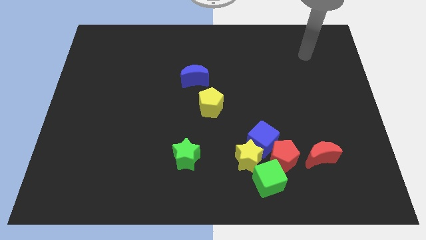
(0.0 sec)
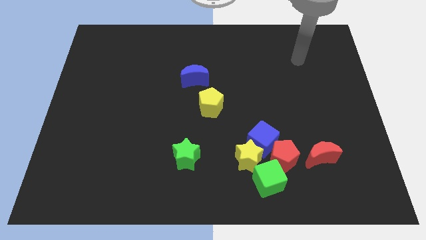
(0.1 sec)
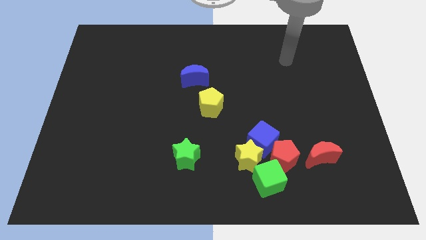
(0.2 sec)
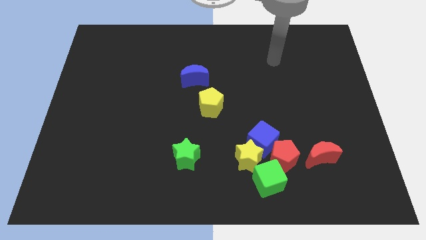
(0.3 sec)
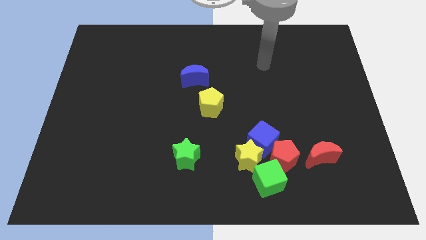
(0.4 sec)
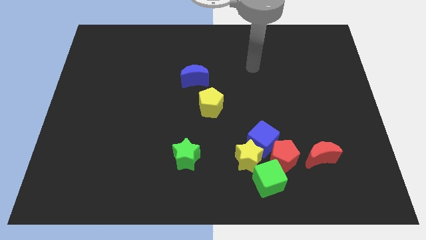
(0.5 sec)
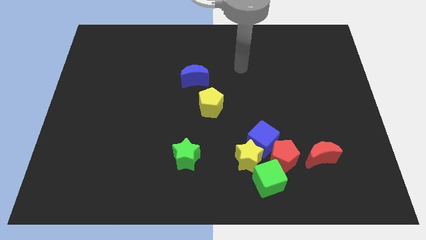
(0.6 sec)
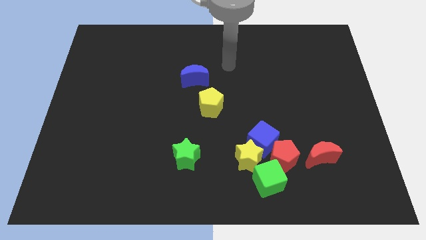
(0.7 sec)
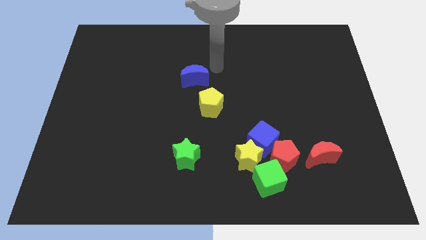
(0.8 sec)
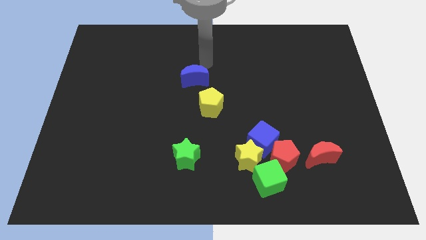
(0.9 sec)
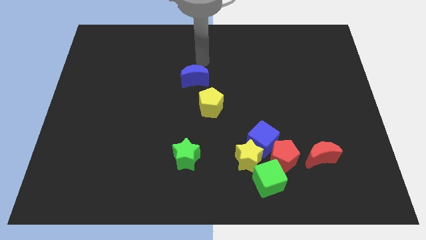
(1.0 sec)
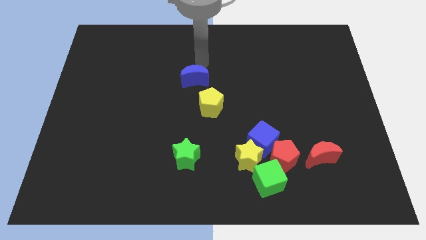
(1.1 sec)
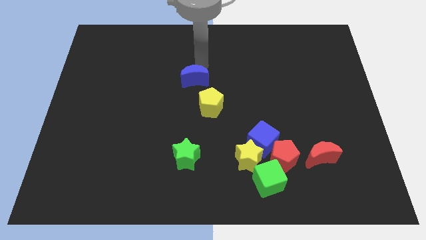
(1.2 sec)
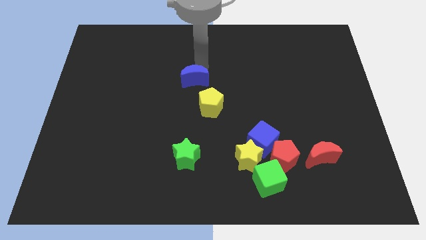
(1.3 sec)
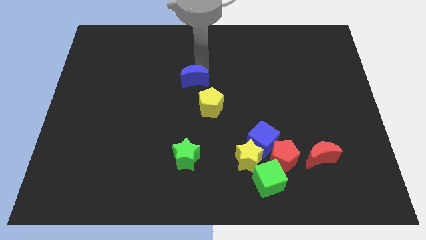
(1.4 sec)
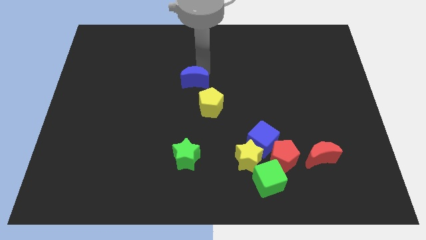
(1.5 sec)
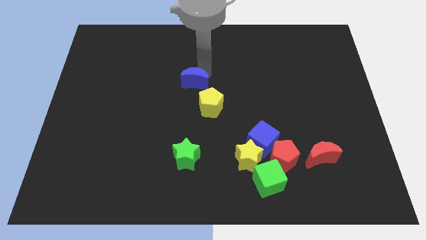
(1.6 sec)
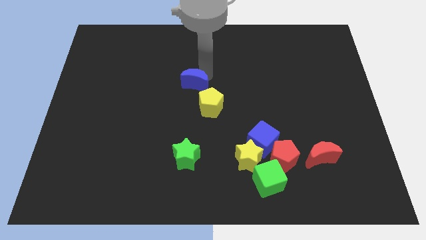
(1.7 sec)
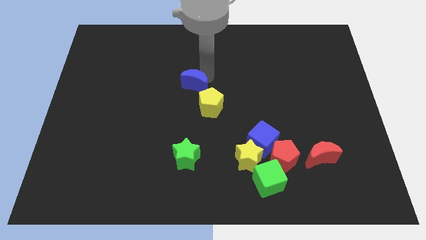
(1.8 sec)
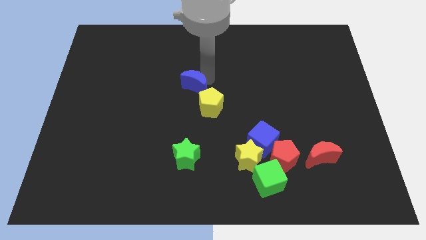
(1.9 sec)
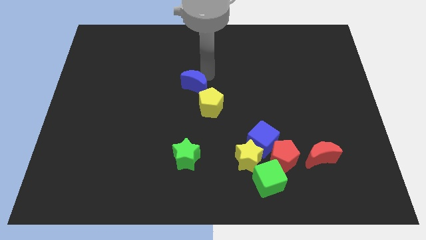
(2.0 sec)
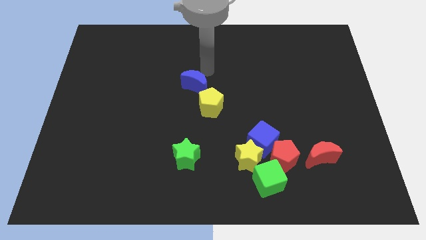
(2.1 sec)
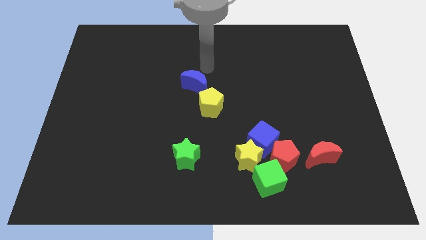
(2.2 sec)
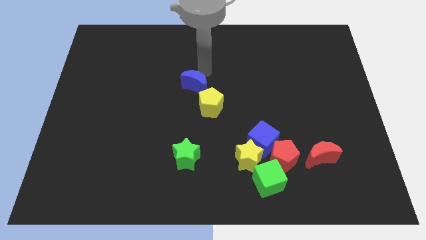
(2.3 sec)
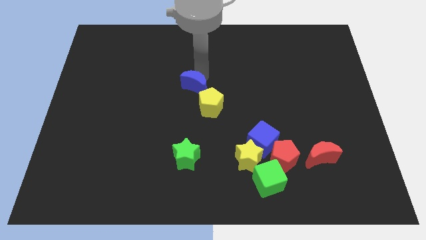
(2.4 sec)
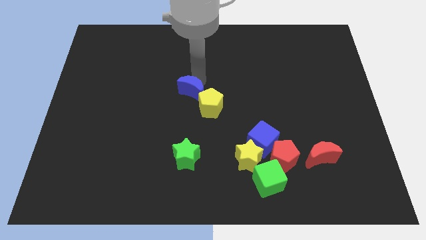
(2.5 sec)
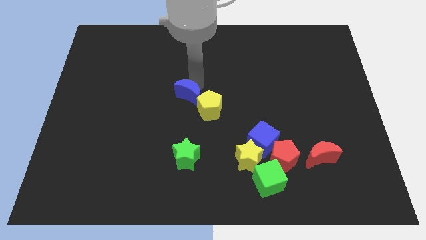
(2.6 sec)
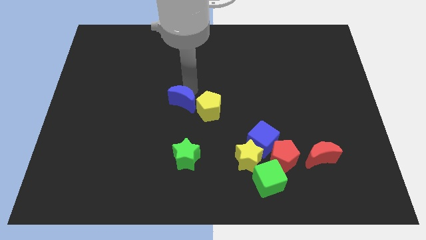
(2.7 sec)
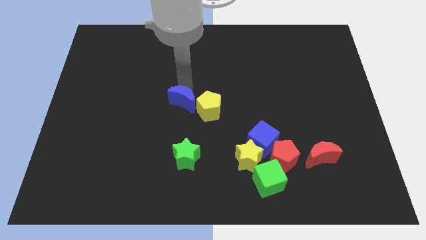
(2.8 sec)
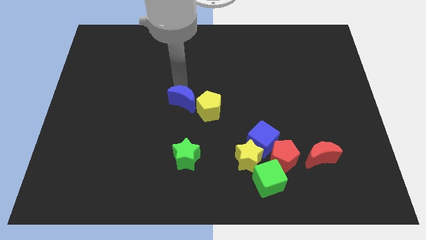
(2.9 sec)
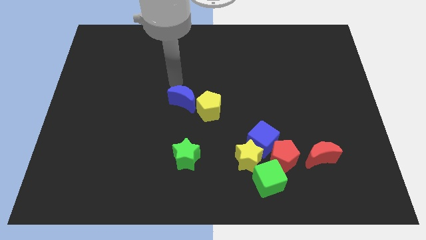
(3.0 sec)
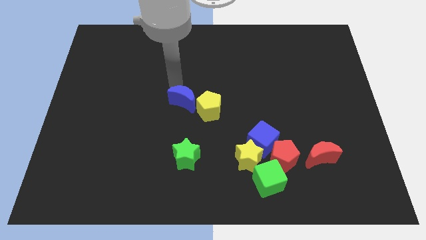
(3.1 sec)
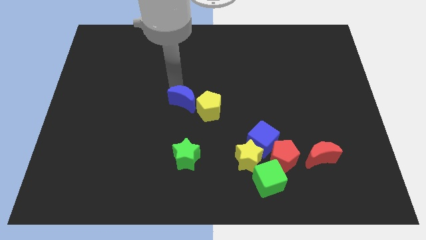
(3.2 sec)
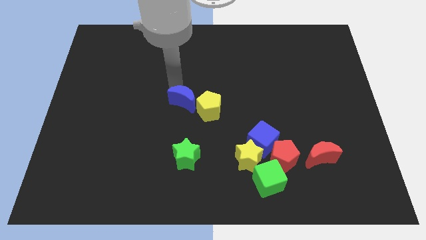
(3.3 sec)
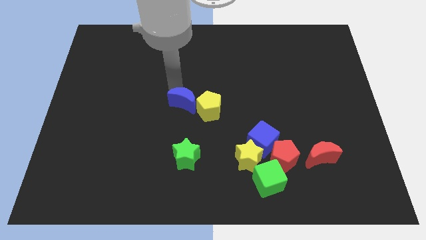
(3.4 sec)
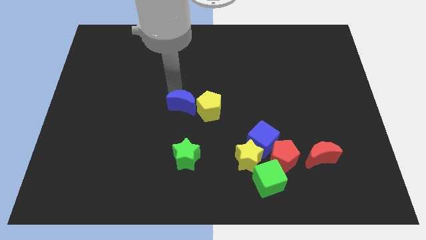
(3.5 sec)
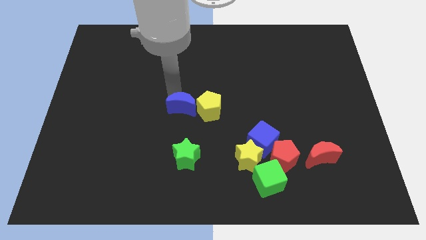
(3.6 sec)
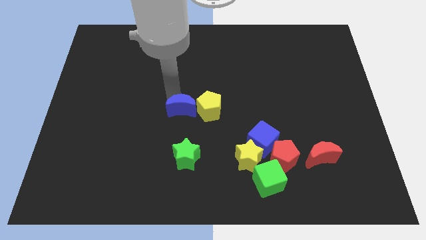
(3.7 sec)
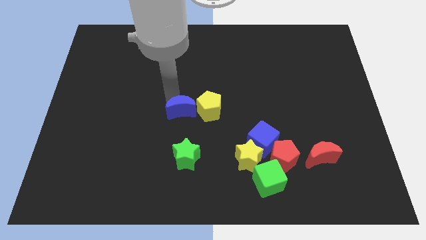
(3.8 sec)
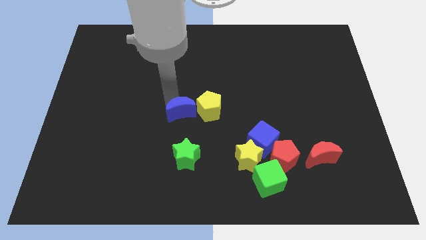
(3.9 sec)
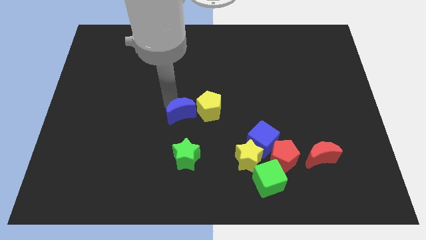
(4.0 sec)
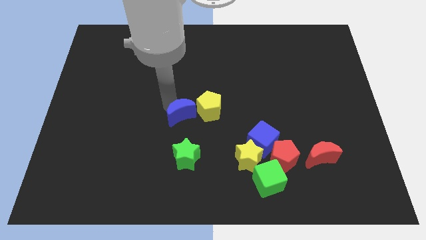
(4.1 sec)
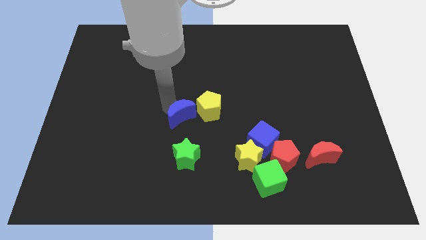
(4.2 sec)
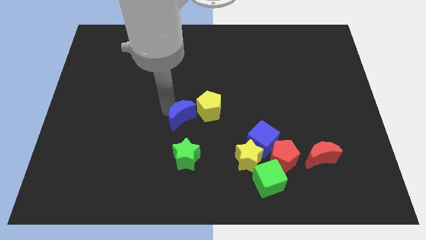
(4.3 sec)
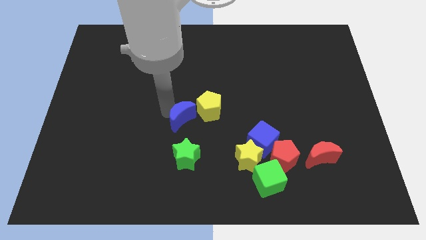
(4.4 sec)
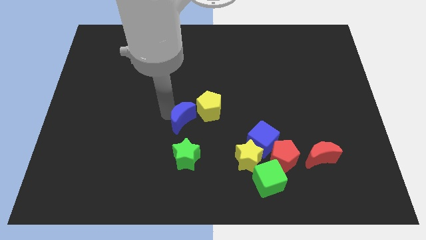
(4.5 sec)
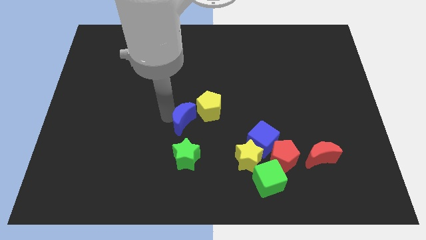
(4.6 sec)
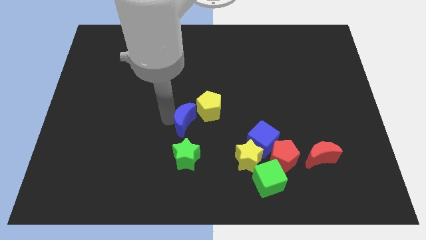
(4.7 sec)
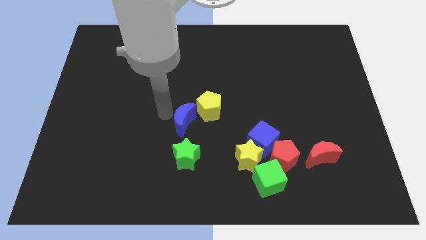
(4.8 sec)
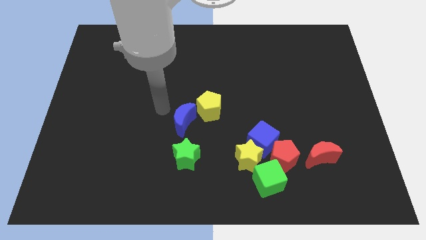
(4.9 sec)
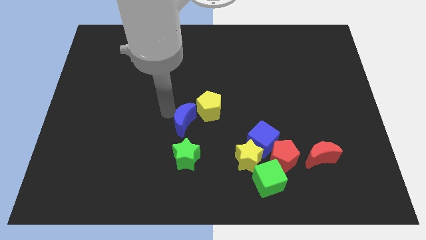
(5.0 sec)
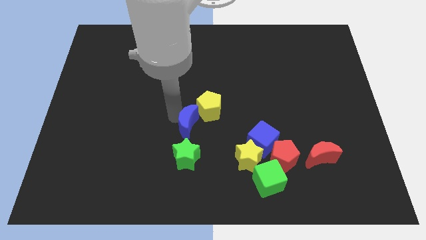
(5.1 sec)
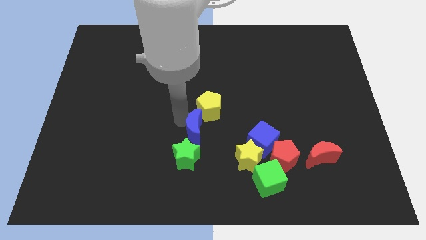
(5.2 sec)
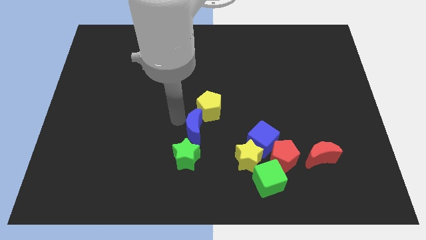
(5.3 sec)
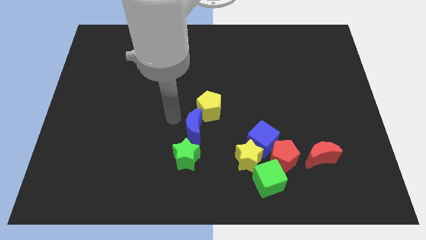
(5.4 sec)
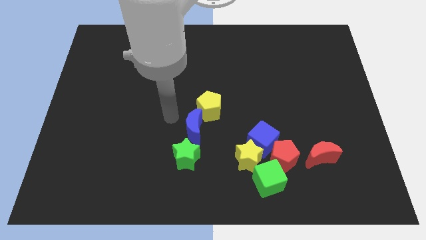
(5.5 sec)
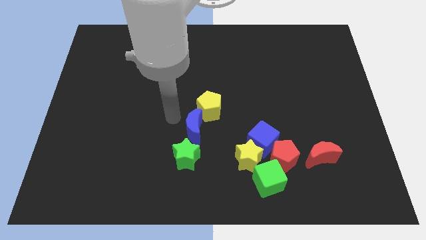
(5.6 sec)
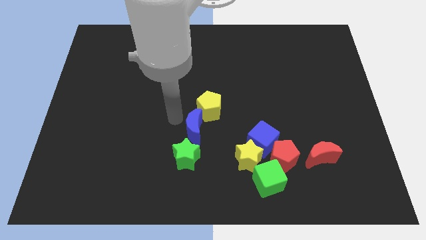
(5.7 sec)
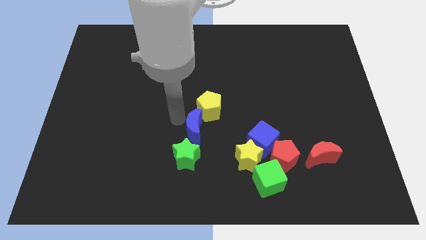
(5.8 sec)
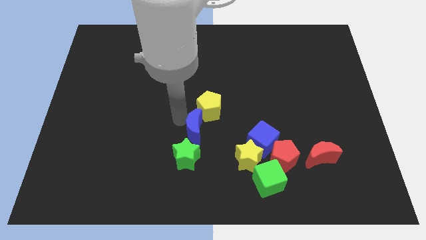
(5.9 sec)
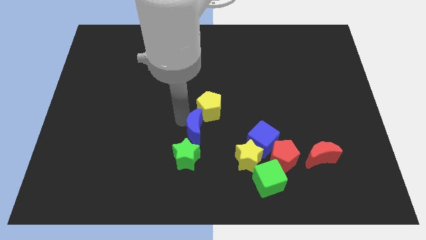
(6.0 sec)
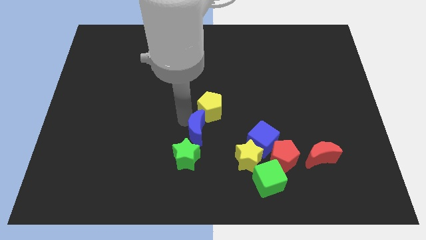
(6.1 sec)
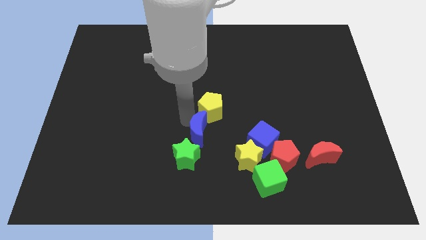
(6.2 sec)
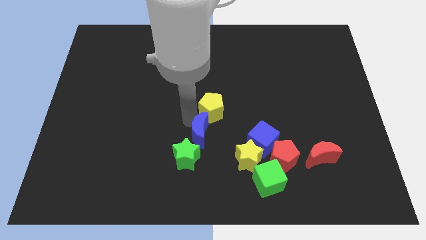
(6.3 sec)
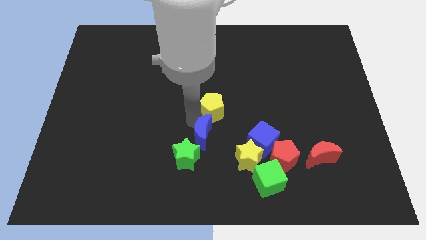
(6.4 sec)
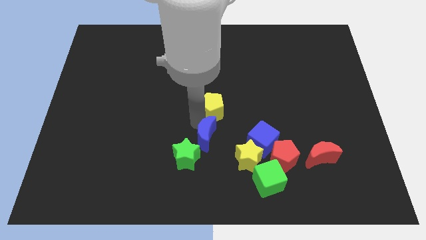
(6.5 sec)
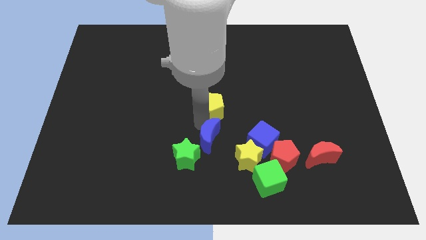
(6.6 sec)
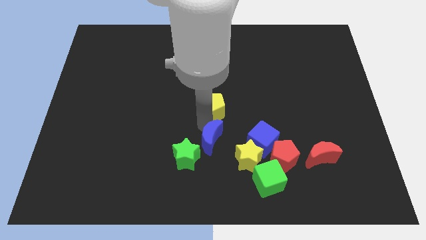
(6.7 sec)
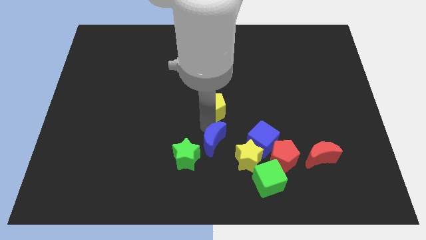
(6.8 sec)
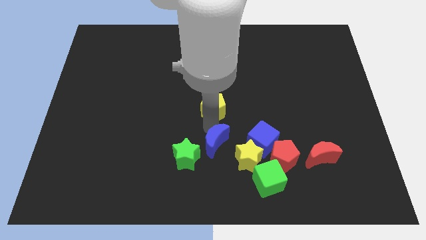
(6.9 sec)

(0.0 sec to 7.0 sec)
push the blue moon just left of the red pentagon

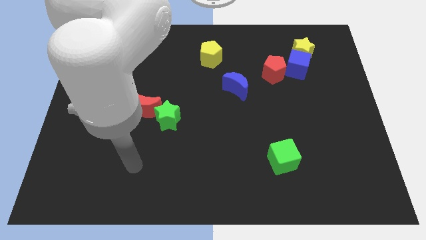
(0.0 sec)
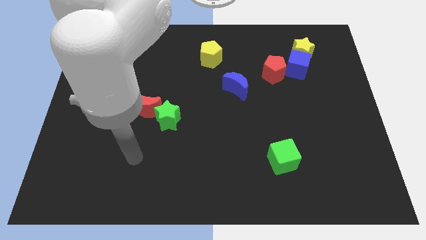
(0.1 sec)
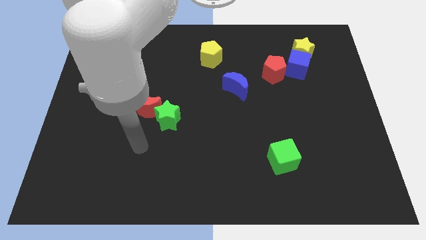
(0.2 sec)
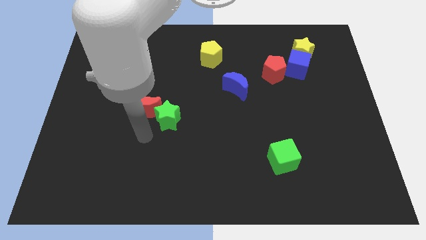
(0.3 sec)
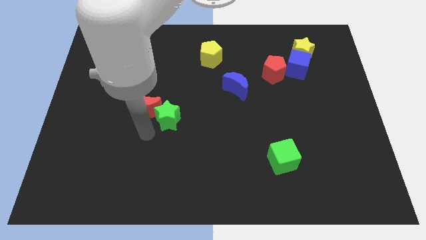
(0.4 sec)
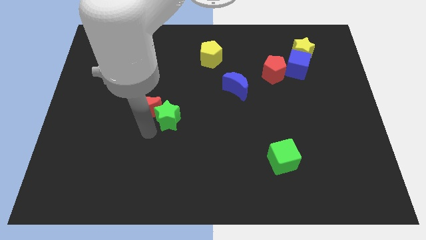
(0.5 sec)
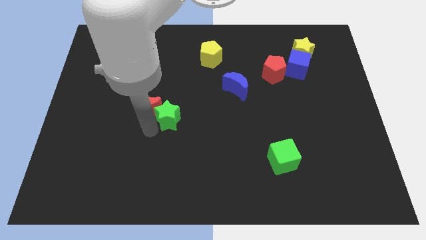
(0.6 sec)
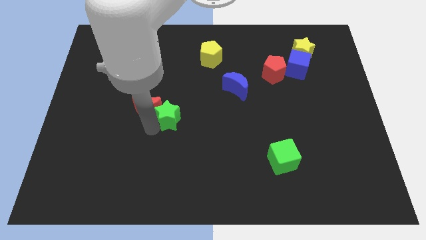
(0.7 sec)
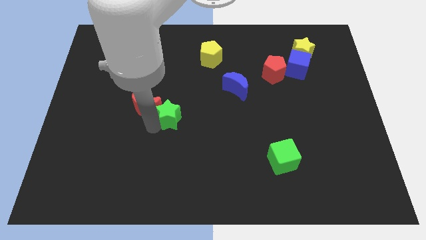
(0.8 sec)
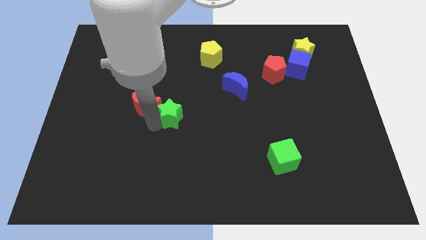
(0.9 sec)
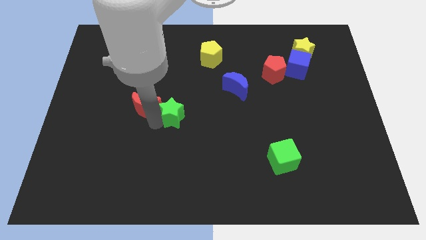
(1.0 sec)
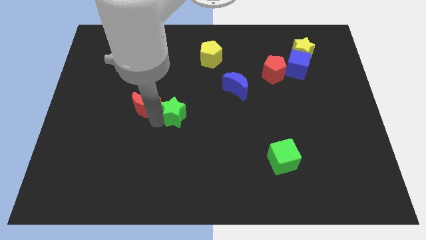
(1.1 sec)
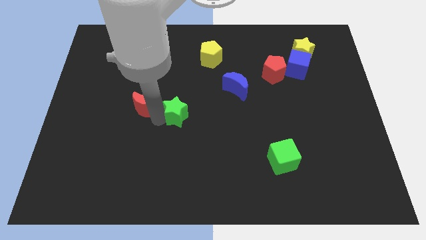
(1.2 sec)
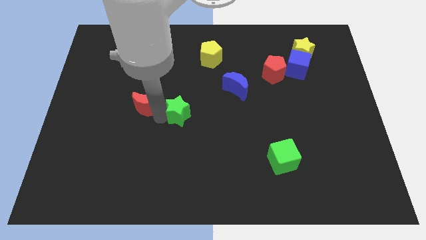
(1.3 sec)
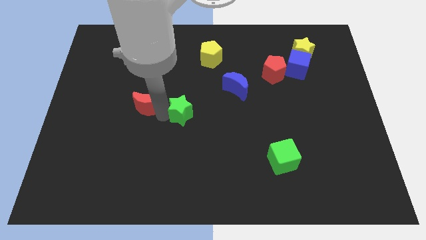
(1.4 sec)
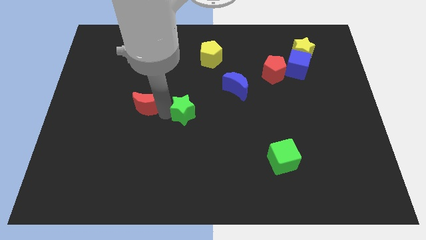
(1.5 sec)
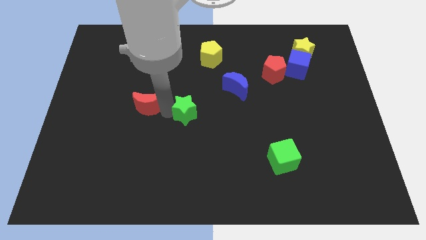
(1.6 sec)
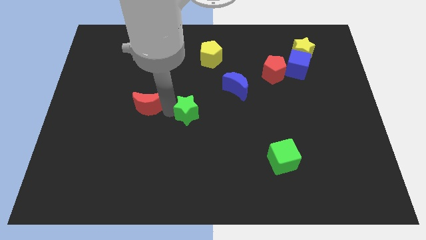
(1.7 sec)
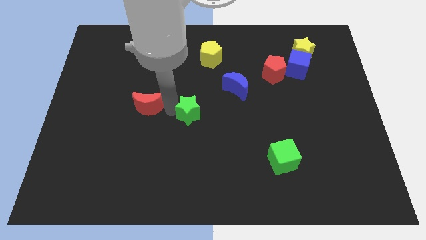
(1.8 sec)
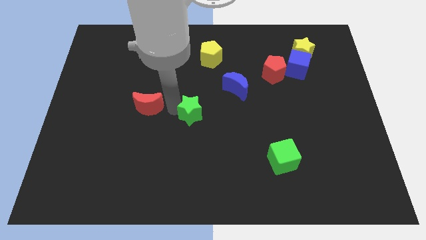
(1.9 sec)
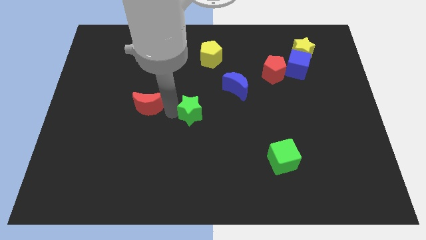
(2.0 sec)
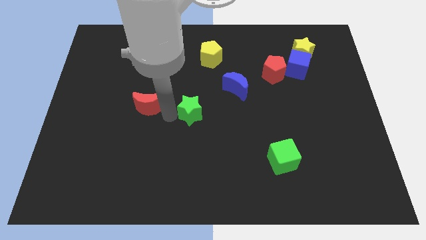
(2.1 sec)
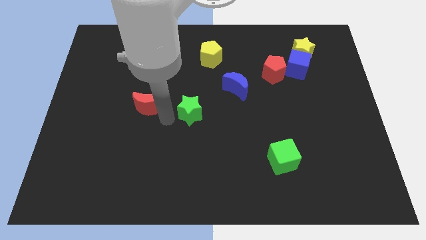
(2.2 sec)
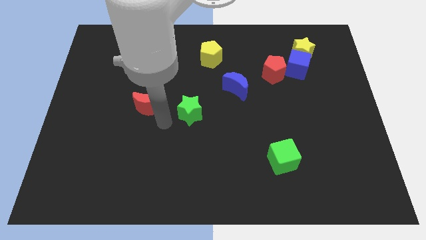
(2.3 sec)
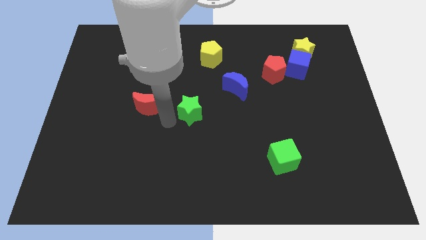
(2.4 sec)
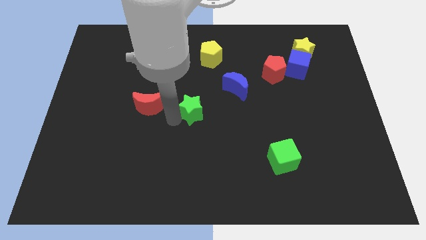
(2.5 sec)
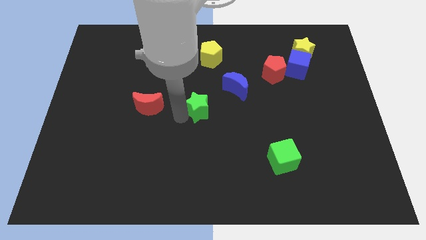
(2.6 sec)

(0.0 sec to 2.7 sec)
put the green star to the bottom left side of the blue moon
